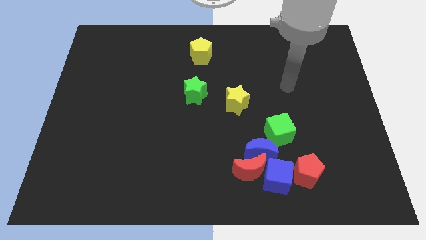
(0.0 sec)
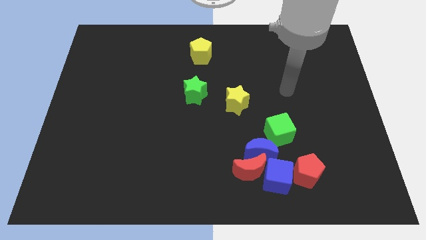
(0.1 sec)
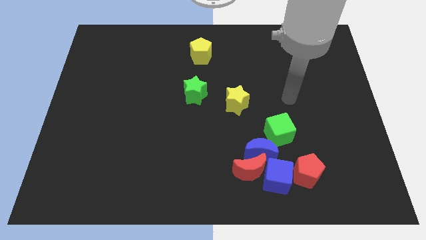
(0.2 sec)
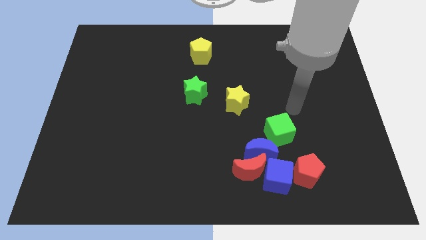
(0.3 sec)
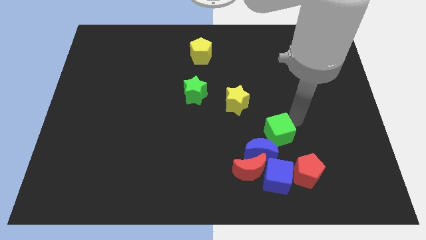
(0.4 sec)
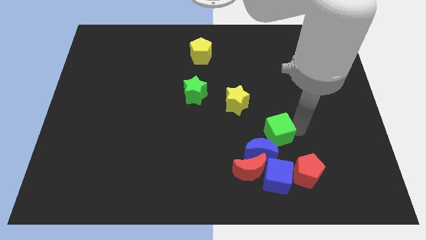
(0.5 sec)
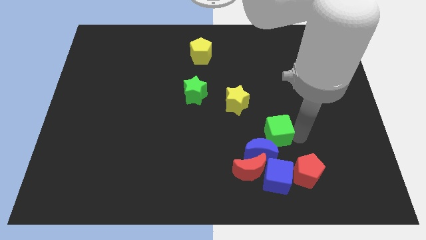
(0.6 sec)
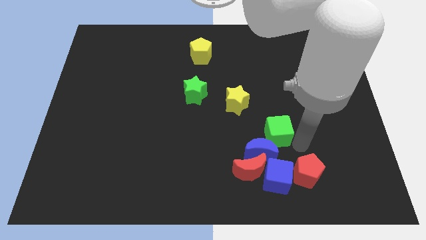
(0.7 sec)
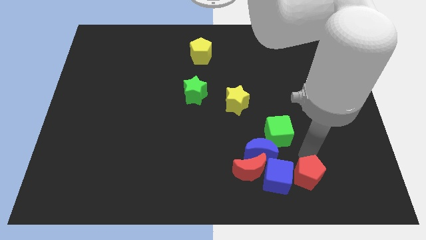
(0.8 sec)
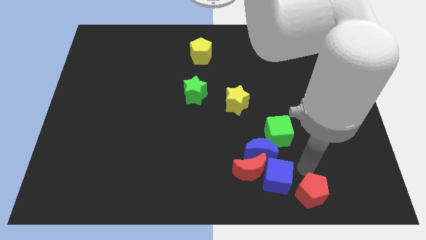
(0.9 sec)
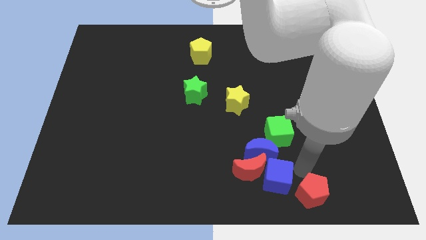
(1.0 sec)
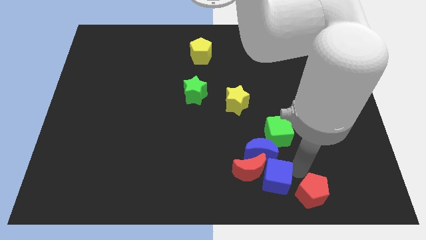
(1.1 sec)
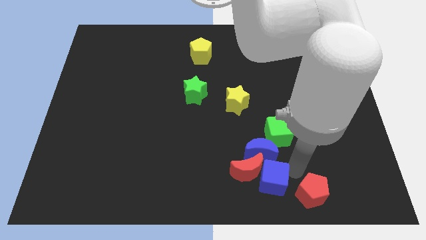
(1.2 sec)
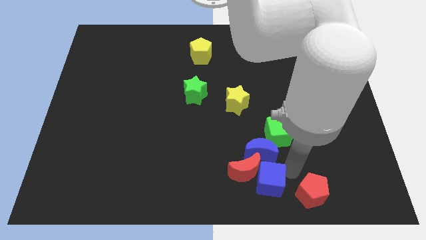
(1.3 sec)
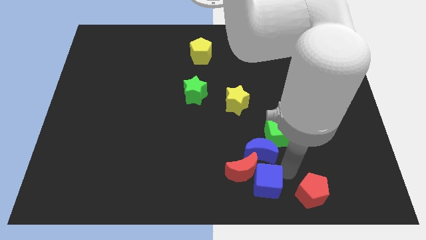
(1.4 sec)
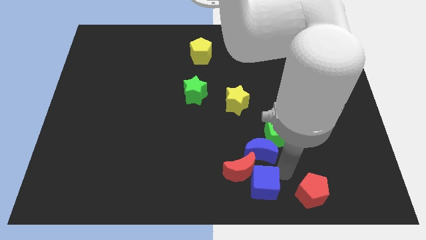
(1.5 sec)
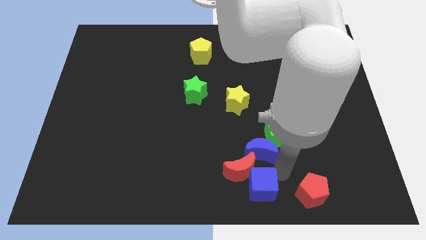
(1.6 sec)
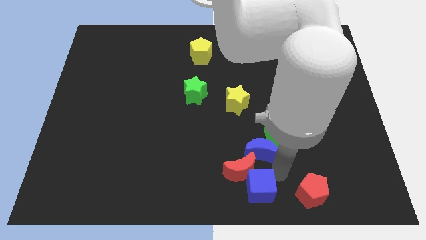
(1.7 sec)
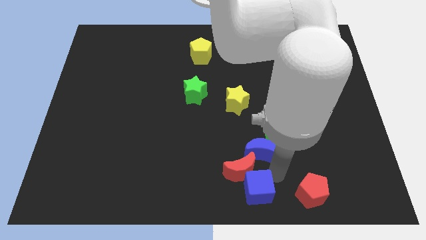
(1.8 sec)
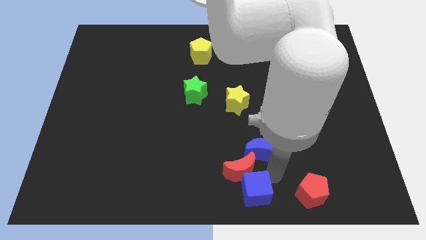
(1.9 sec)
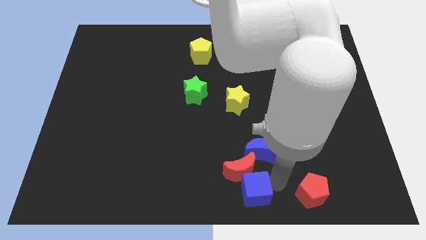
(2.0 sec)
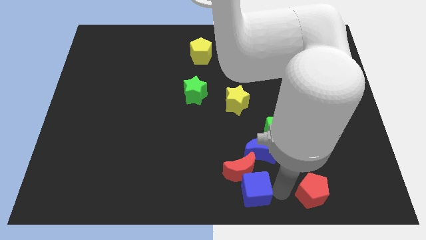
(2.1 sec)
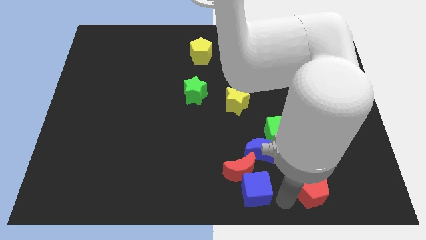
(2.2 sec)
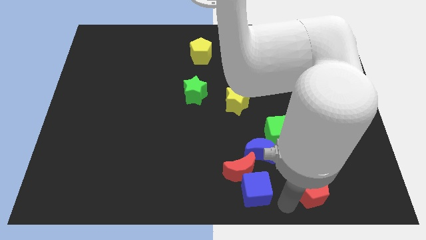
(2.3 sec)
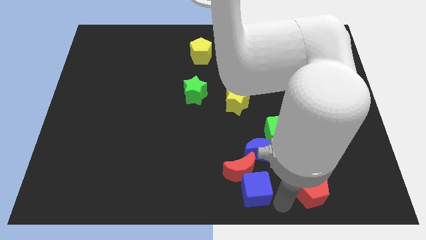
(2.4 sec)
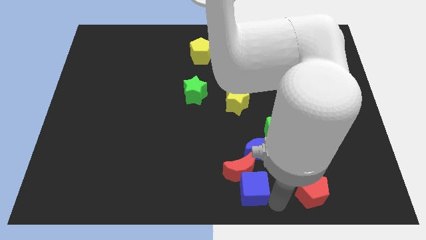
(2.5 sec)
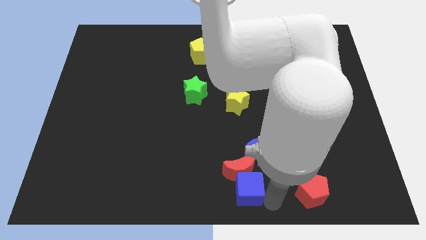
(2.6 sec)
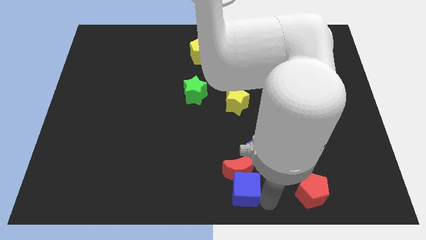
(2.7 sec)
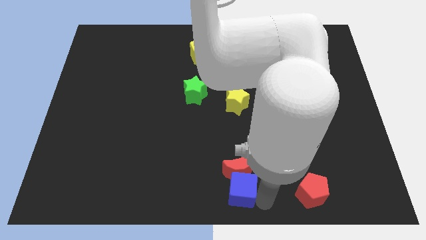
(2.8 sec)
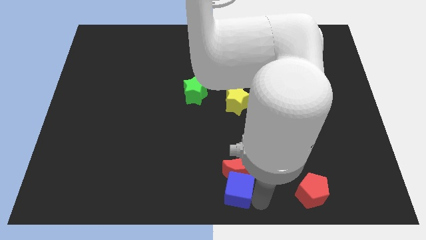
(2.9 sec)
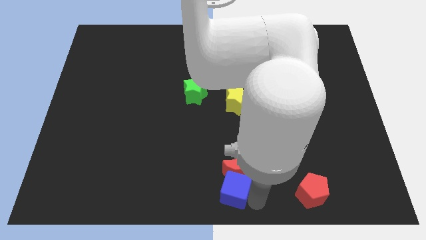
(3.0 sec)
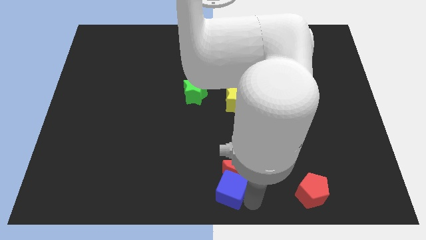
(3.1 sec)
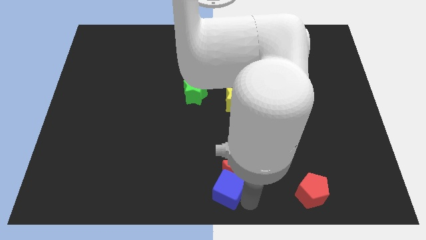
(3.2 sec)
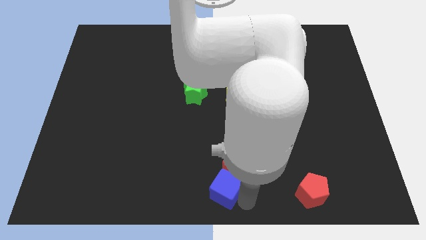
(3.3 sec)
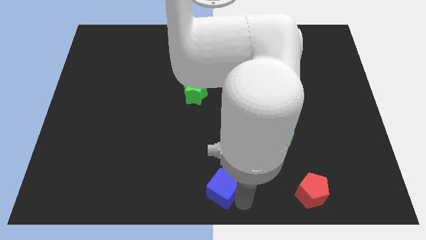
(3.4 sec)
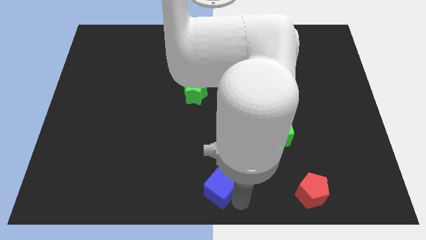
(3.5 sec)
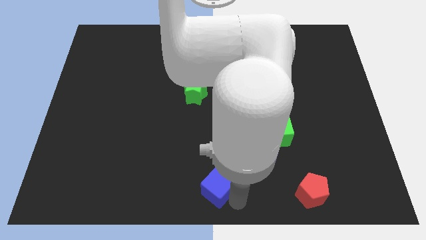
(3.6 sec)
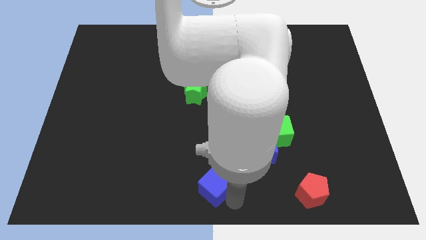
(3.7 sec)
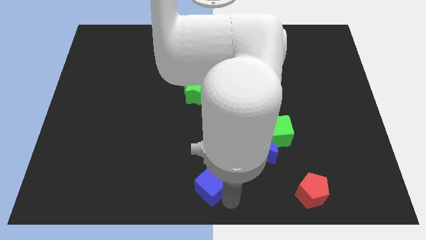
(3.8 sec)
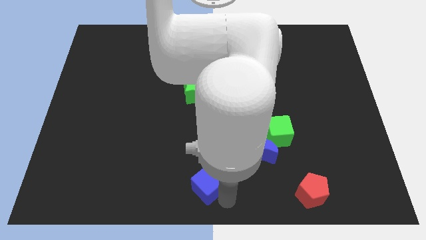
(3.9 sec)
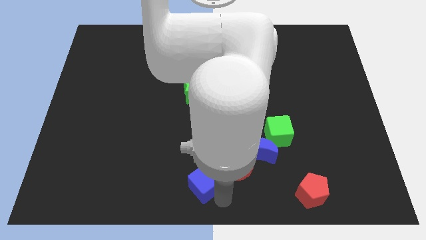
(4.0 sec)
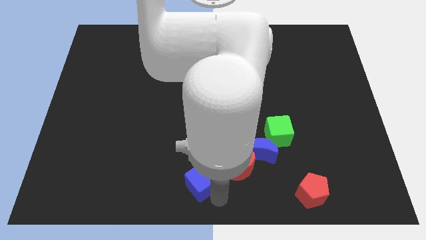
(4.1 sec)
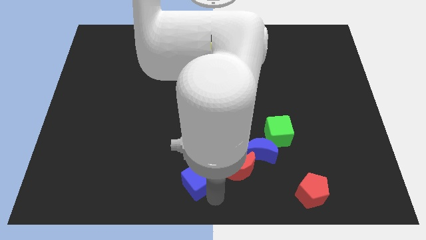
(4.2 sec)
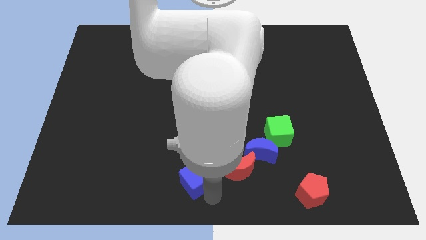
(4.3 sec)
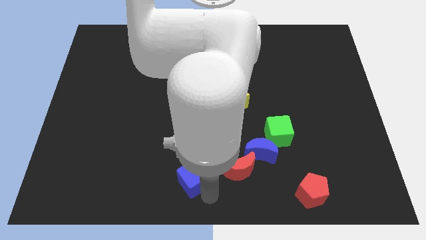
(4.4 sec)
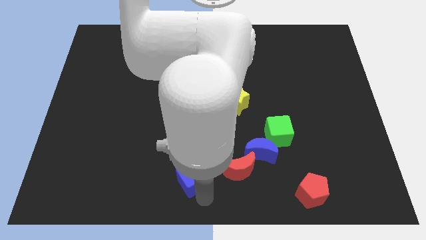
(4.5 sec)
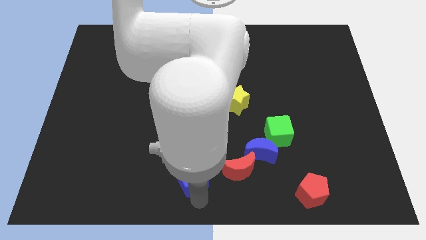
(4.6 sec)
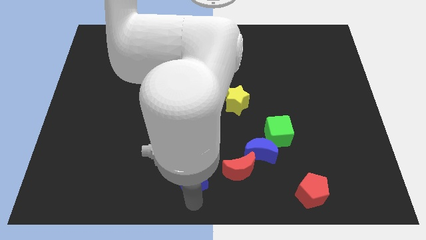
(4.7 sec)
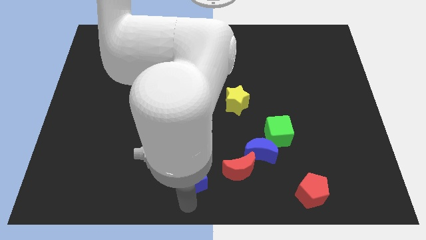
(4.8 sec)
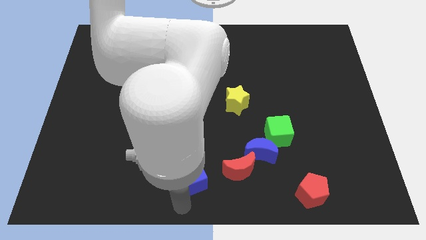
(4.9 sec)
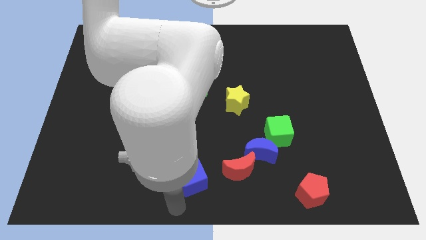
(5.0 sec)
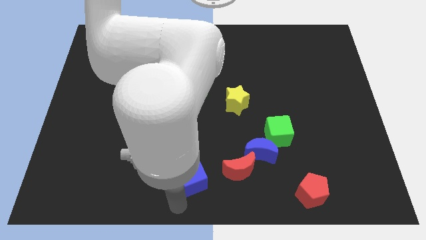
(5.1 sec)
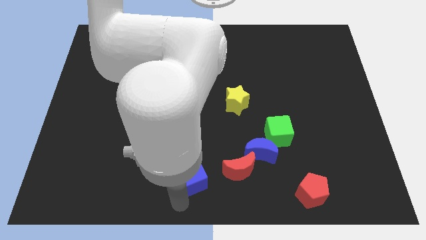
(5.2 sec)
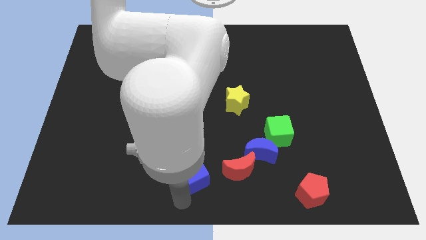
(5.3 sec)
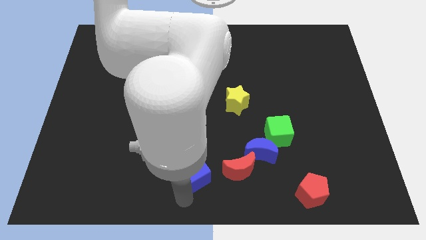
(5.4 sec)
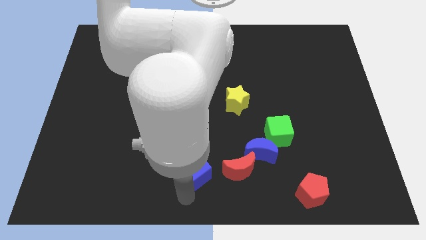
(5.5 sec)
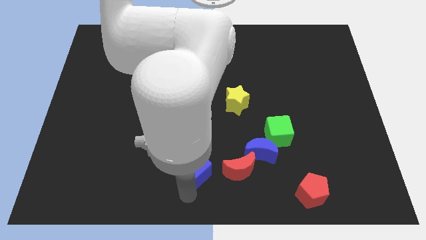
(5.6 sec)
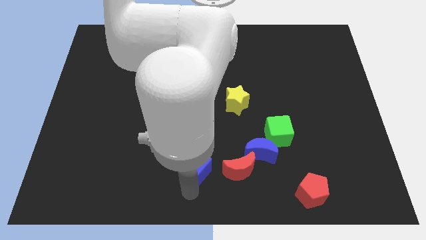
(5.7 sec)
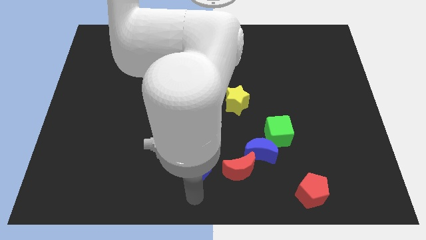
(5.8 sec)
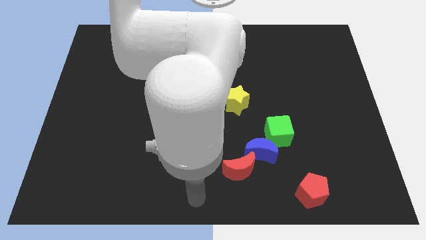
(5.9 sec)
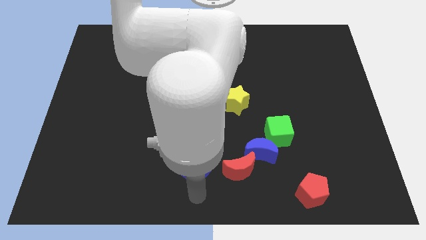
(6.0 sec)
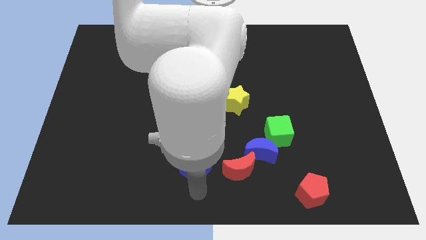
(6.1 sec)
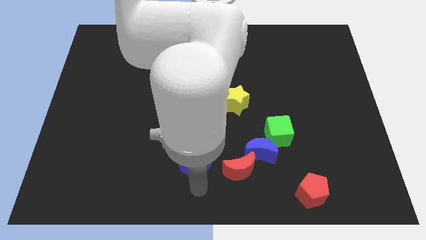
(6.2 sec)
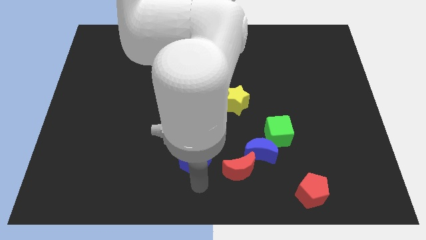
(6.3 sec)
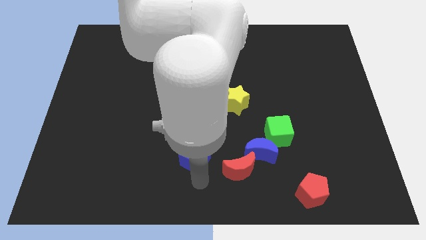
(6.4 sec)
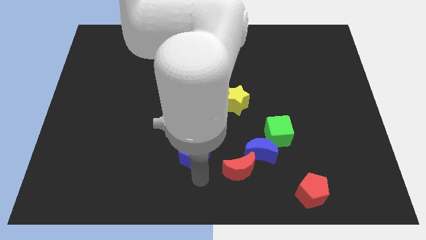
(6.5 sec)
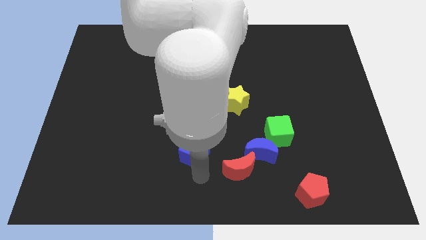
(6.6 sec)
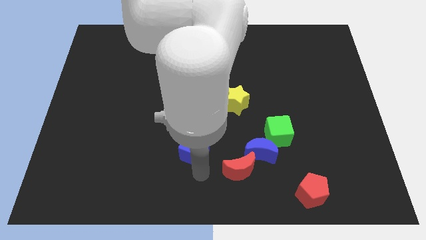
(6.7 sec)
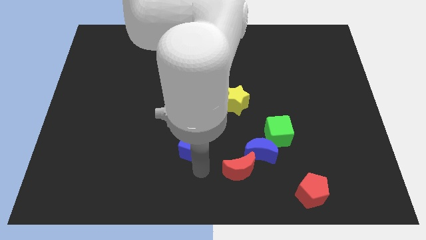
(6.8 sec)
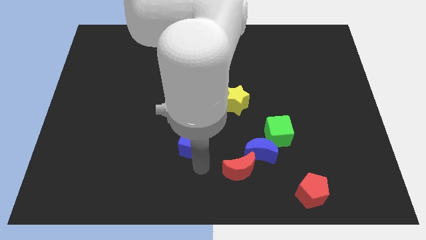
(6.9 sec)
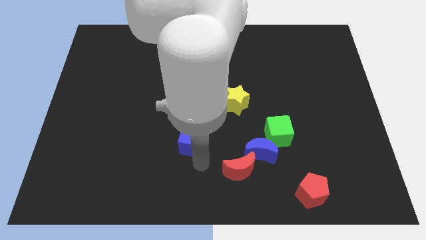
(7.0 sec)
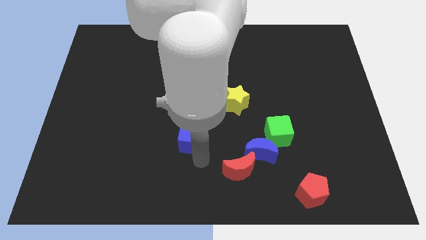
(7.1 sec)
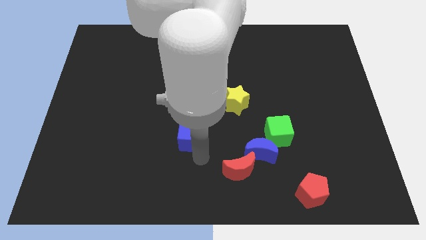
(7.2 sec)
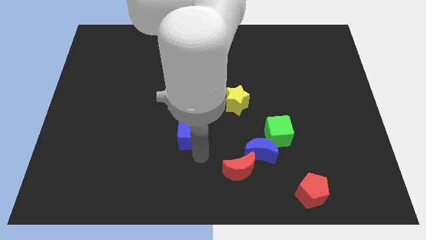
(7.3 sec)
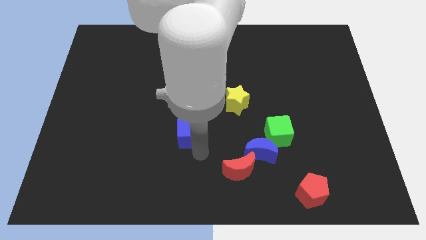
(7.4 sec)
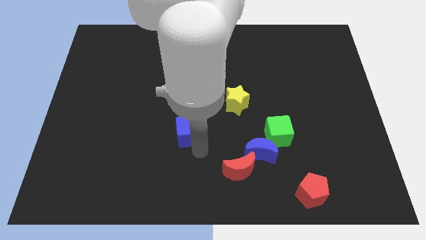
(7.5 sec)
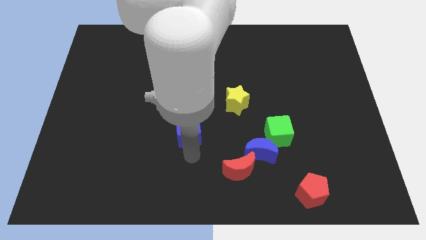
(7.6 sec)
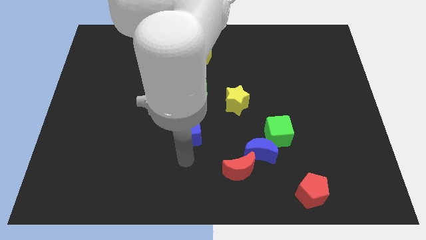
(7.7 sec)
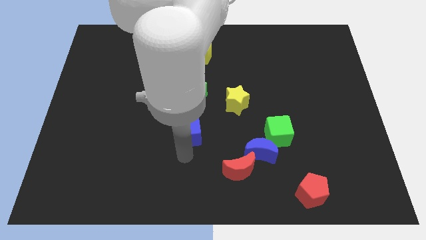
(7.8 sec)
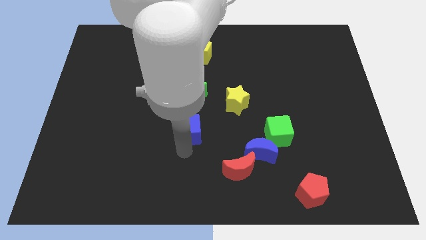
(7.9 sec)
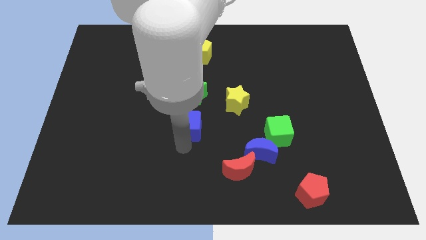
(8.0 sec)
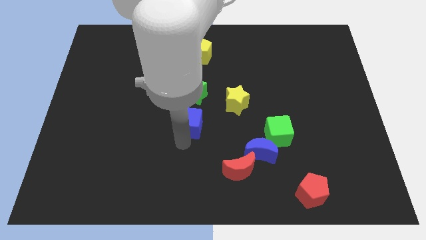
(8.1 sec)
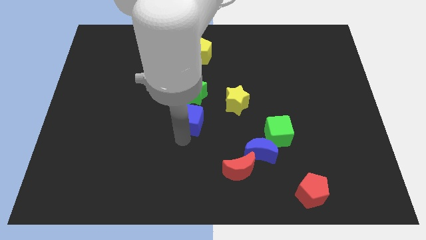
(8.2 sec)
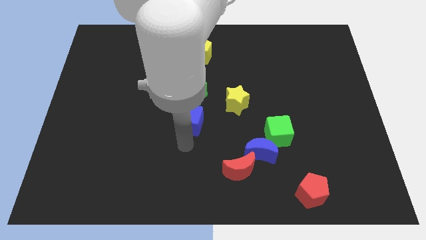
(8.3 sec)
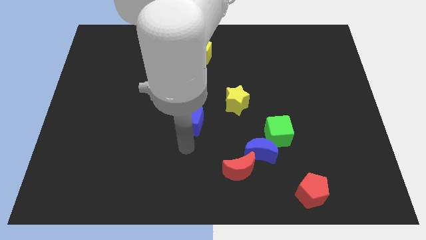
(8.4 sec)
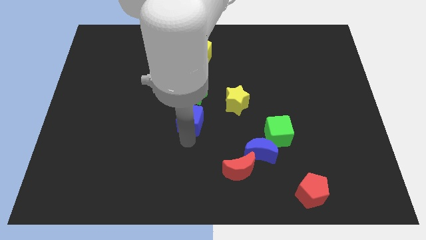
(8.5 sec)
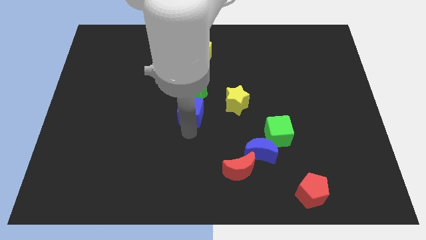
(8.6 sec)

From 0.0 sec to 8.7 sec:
slide the blue cube next to the green star
